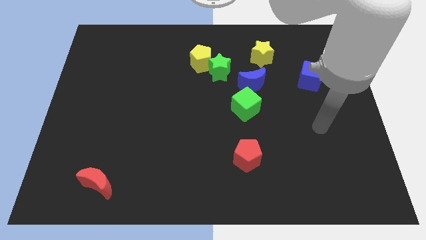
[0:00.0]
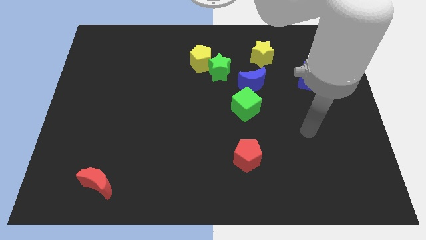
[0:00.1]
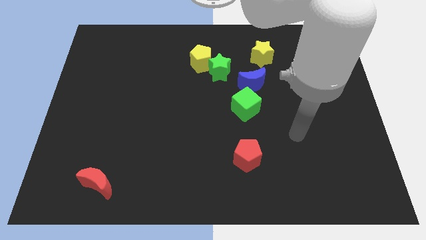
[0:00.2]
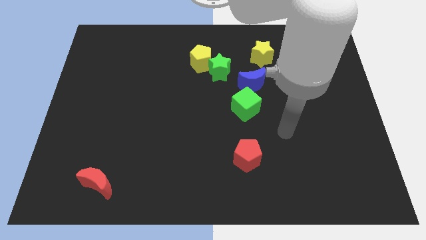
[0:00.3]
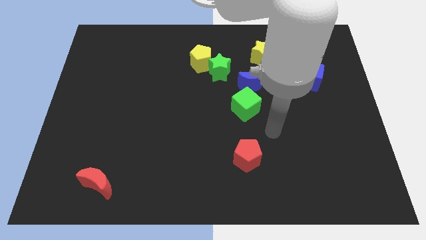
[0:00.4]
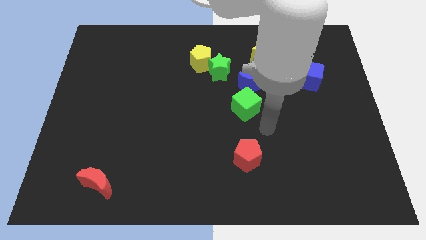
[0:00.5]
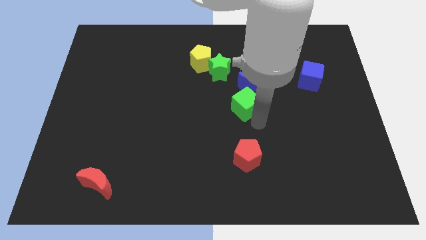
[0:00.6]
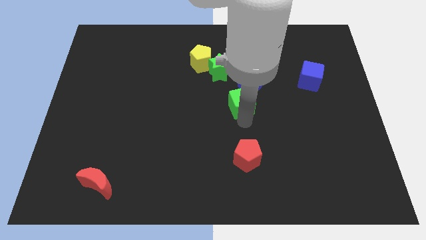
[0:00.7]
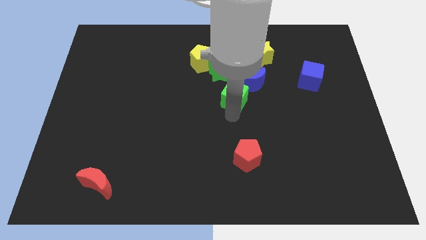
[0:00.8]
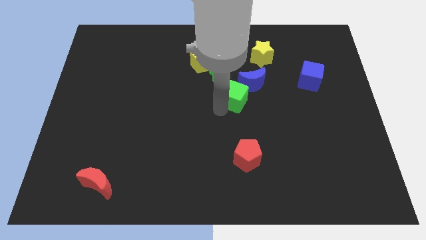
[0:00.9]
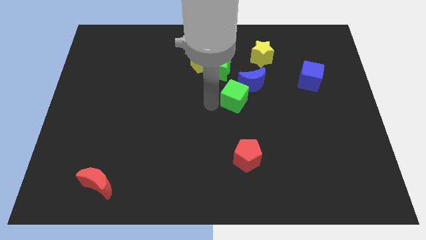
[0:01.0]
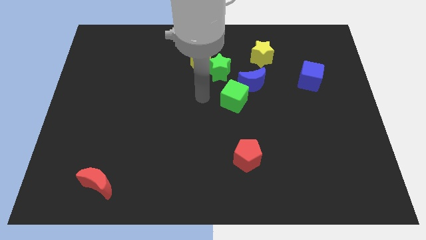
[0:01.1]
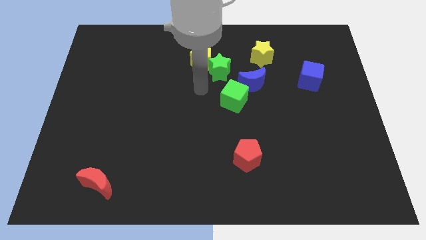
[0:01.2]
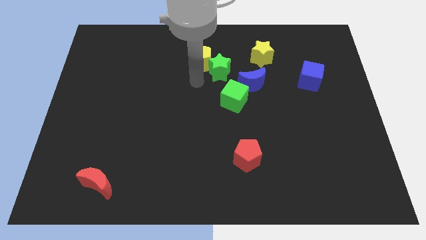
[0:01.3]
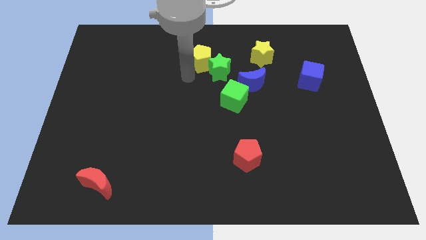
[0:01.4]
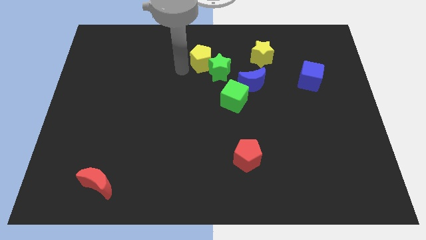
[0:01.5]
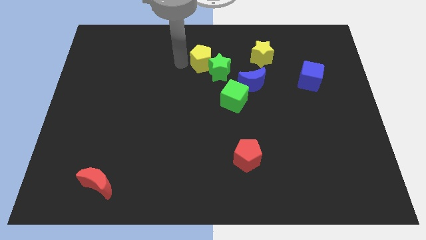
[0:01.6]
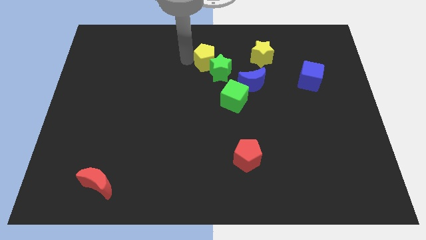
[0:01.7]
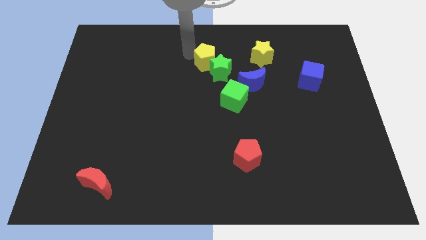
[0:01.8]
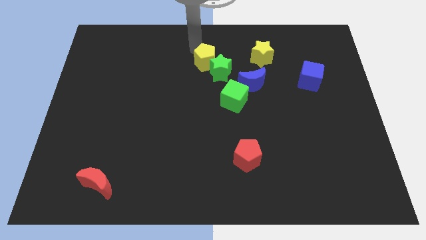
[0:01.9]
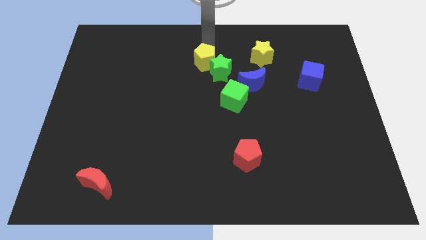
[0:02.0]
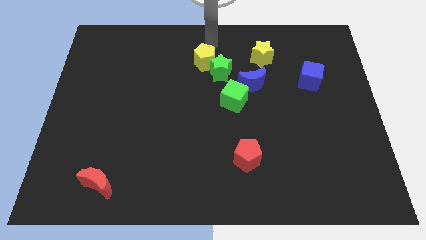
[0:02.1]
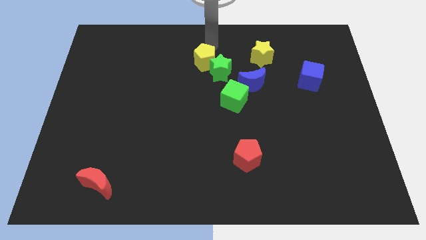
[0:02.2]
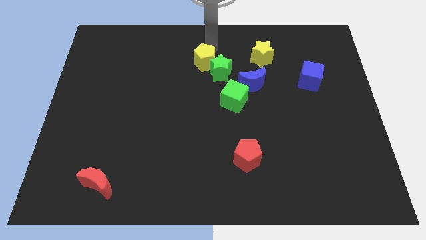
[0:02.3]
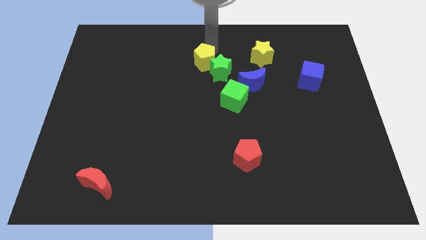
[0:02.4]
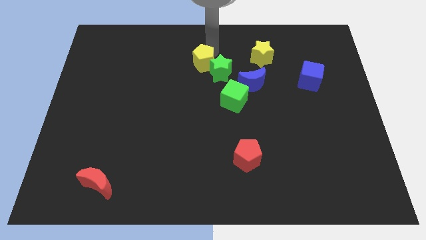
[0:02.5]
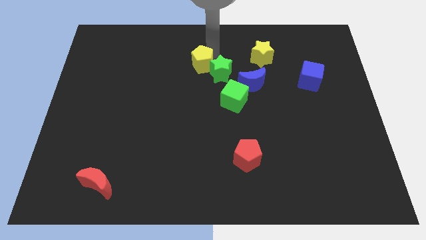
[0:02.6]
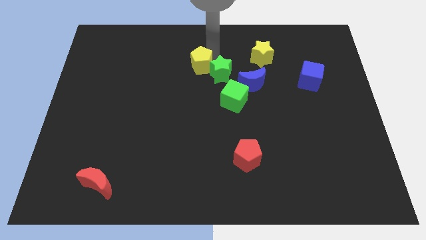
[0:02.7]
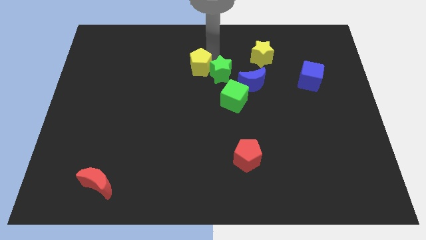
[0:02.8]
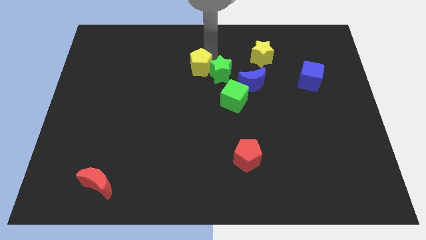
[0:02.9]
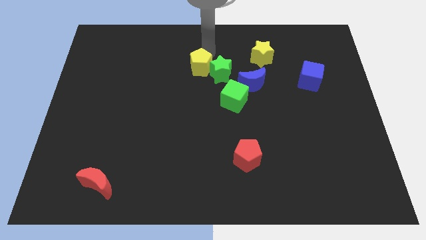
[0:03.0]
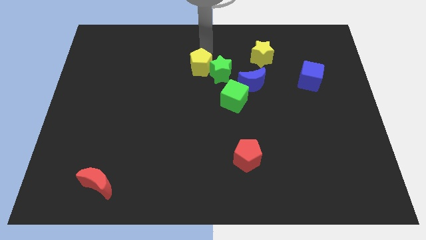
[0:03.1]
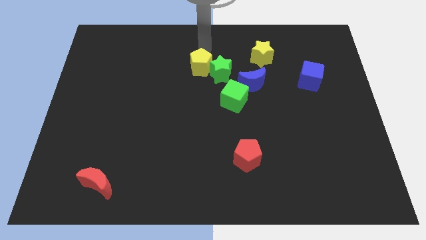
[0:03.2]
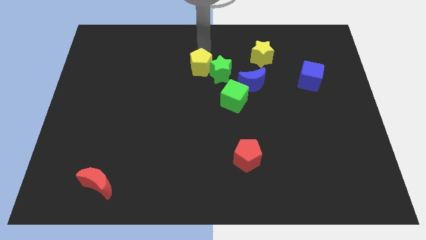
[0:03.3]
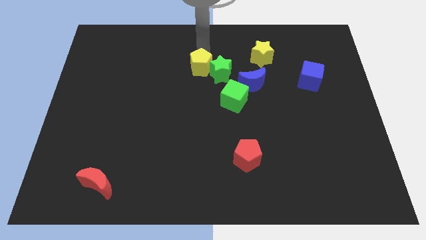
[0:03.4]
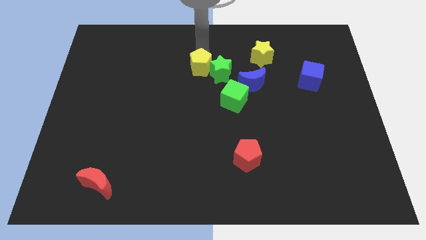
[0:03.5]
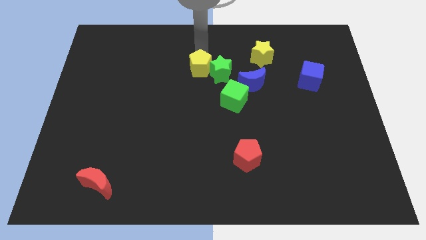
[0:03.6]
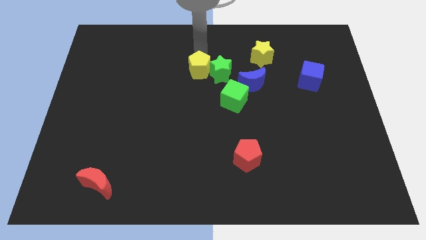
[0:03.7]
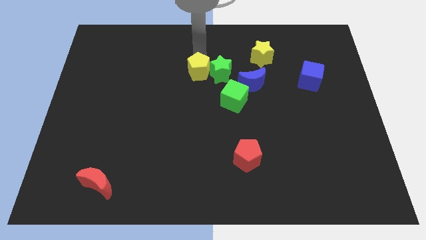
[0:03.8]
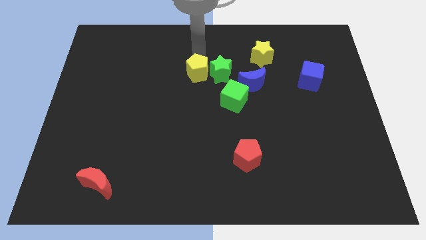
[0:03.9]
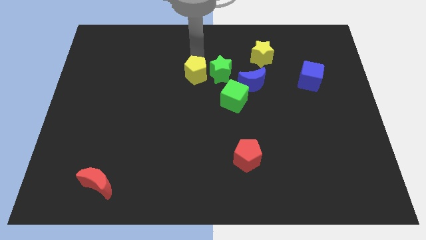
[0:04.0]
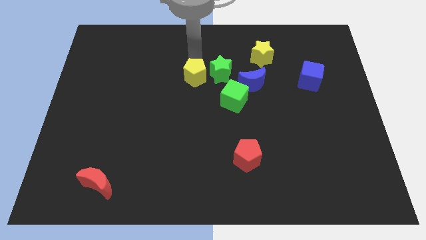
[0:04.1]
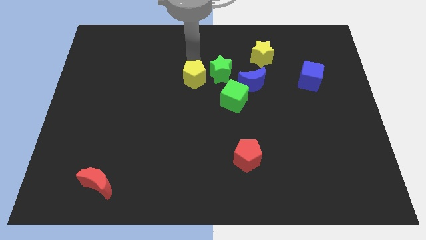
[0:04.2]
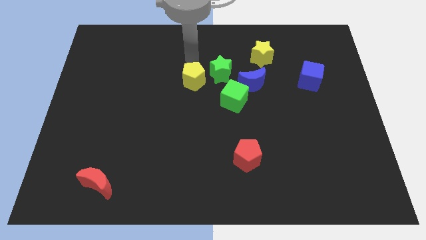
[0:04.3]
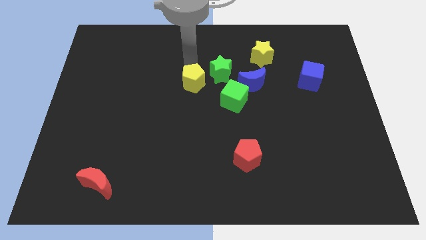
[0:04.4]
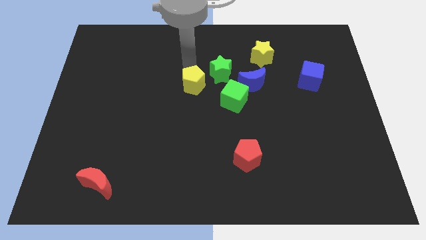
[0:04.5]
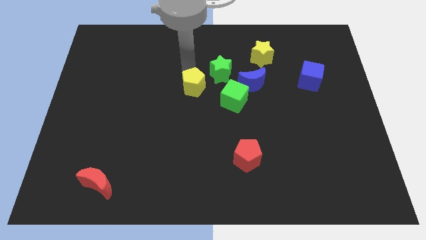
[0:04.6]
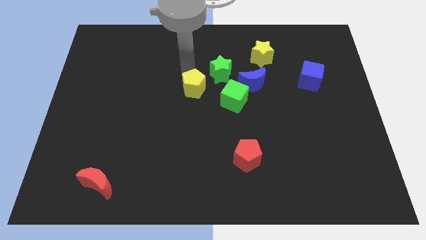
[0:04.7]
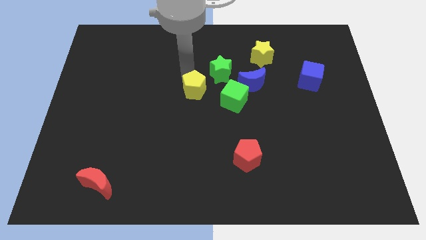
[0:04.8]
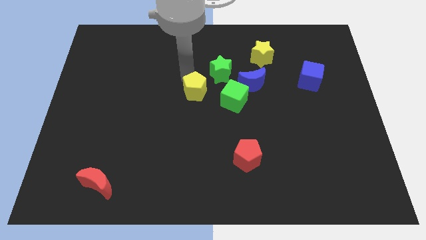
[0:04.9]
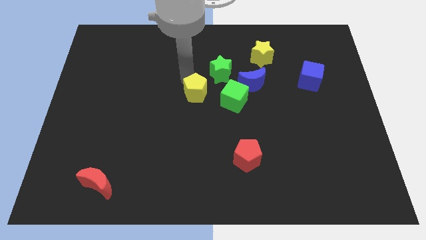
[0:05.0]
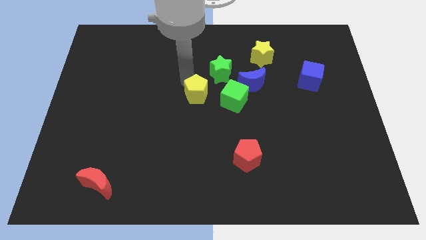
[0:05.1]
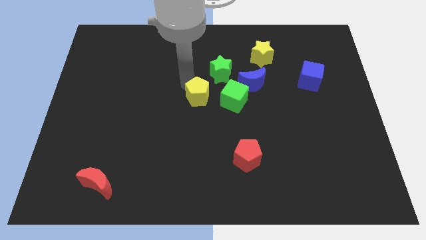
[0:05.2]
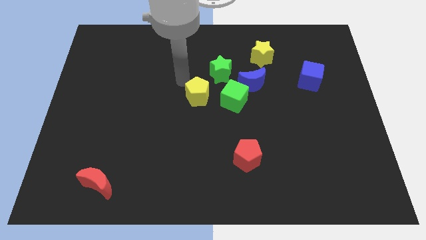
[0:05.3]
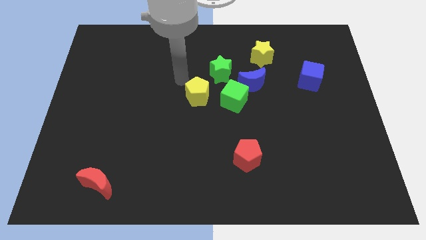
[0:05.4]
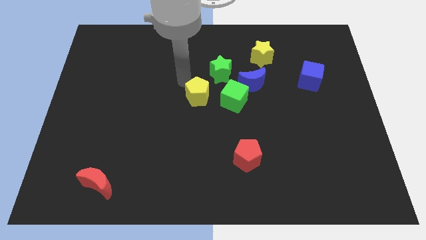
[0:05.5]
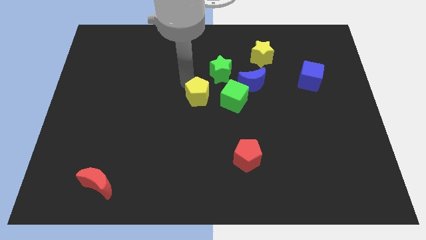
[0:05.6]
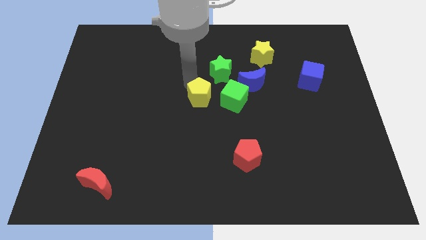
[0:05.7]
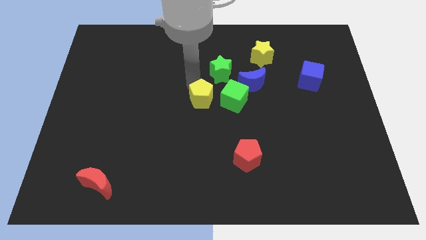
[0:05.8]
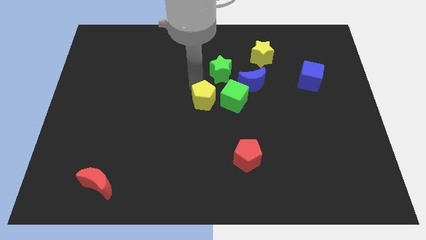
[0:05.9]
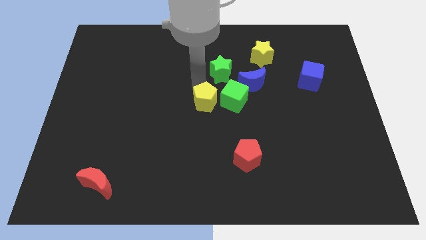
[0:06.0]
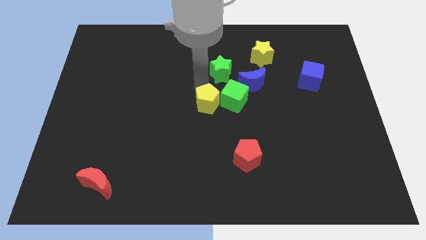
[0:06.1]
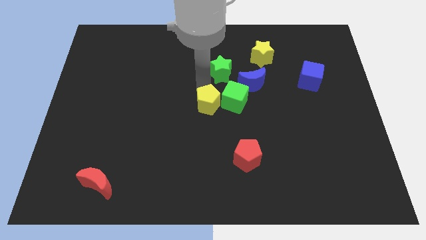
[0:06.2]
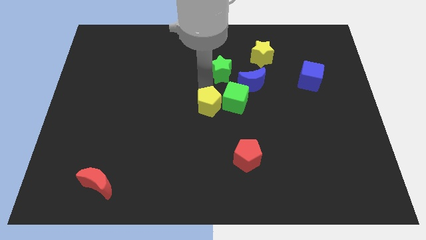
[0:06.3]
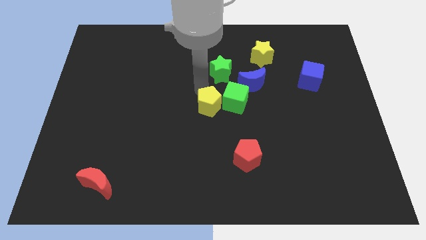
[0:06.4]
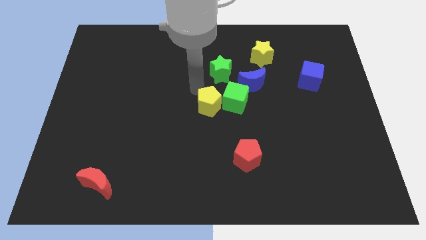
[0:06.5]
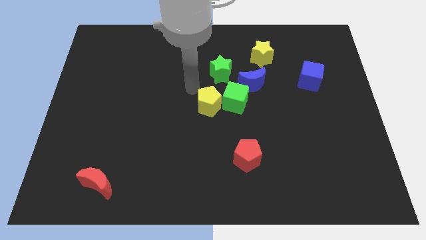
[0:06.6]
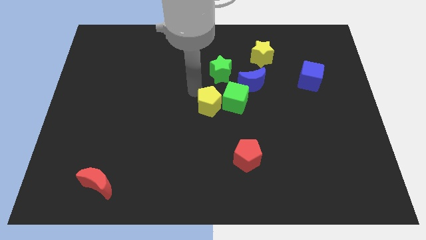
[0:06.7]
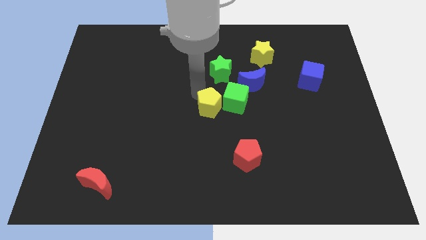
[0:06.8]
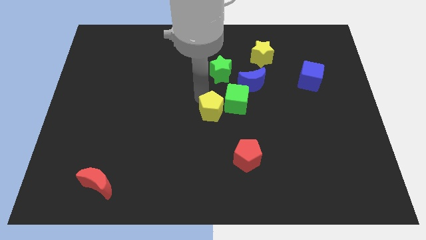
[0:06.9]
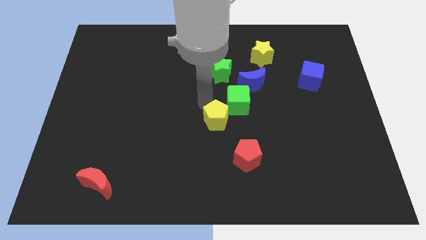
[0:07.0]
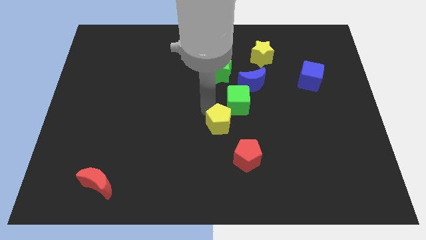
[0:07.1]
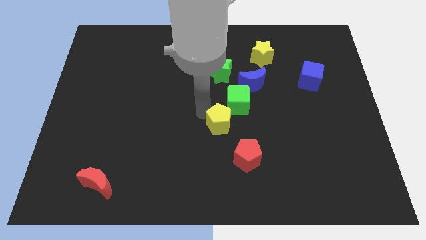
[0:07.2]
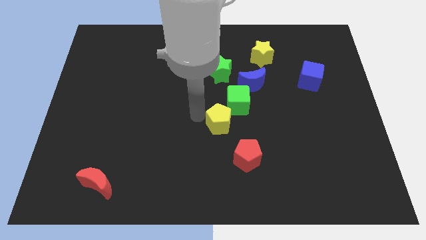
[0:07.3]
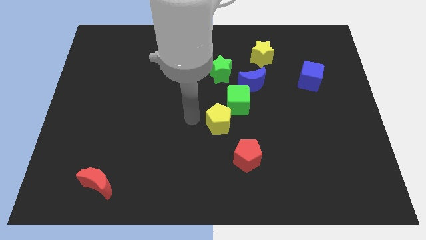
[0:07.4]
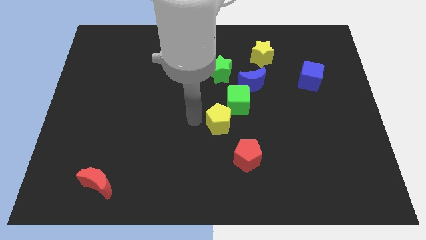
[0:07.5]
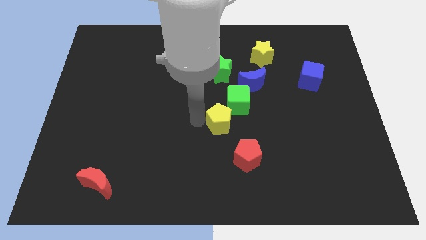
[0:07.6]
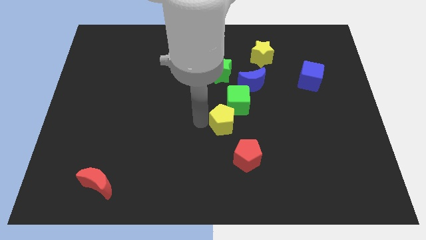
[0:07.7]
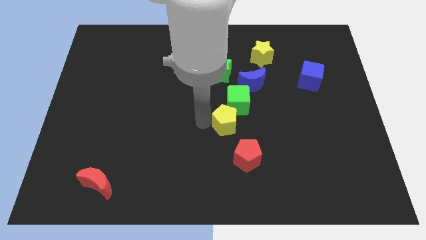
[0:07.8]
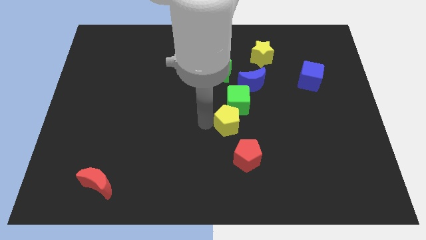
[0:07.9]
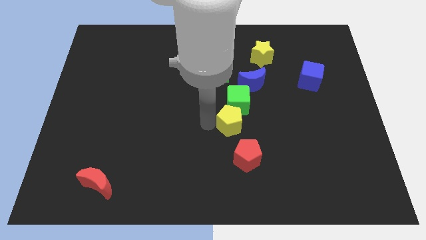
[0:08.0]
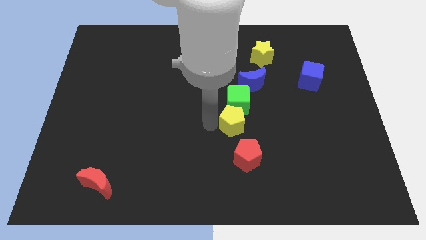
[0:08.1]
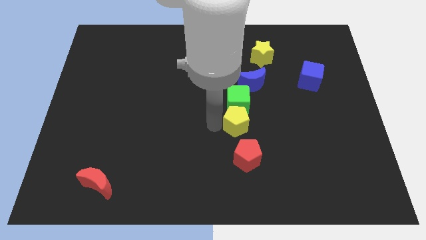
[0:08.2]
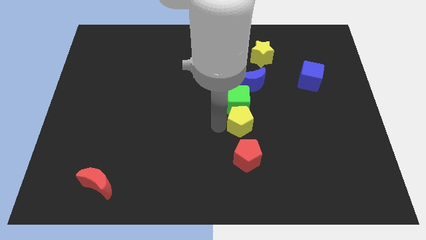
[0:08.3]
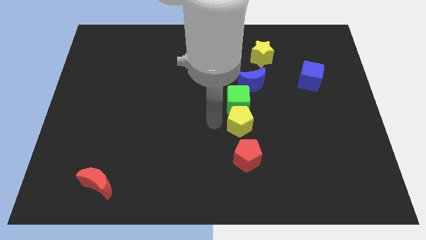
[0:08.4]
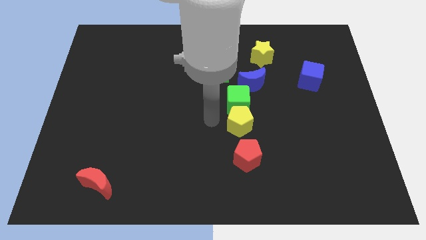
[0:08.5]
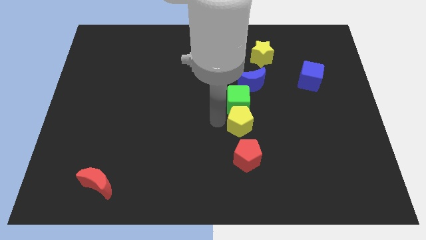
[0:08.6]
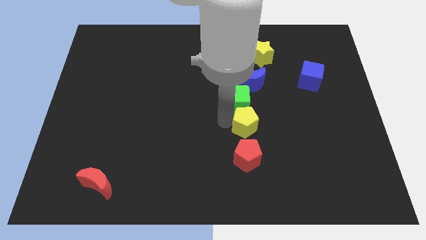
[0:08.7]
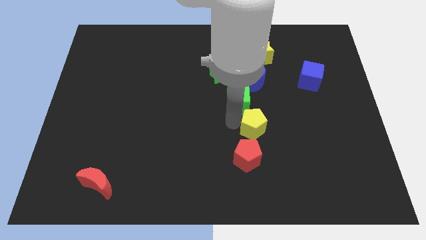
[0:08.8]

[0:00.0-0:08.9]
slide the yellow pentagon diagonally down and right
